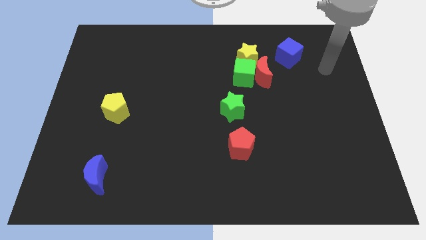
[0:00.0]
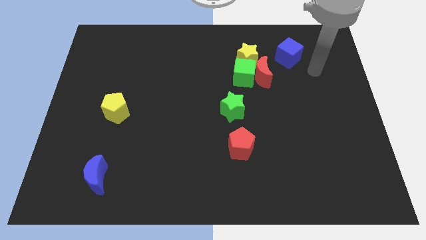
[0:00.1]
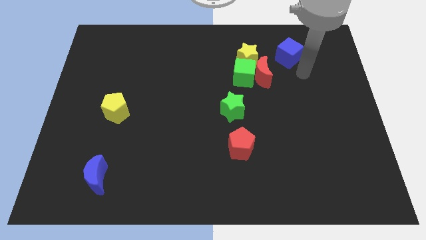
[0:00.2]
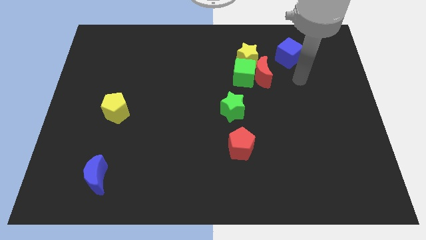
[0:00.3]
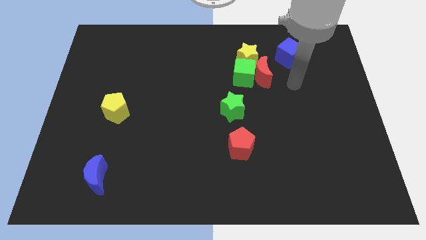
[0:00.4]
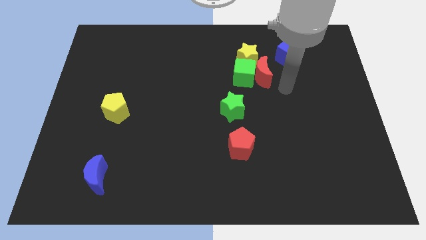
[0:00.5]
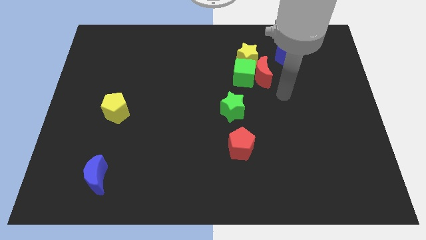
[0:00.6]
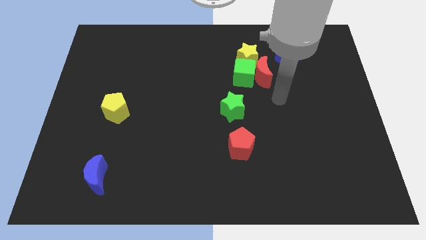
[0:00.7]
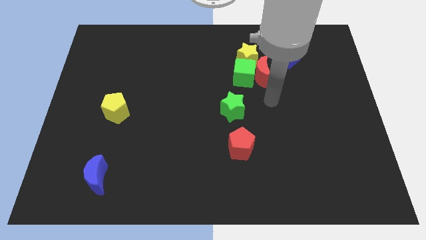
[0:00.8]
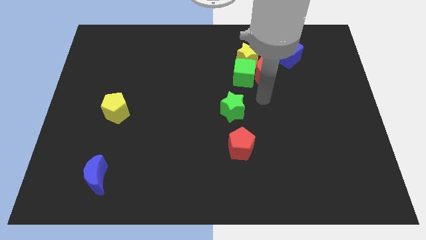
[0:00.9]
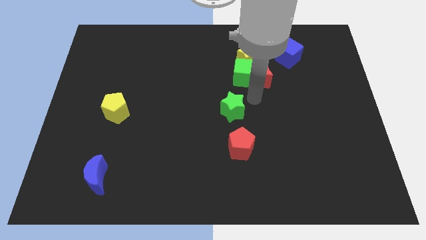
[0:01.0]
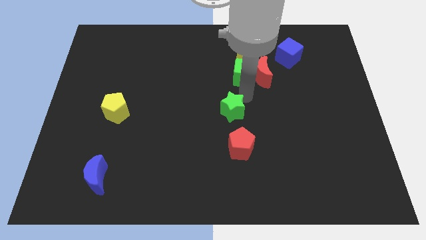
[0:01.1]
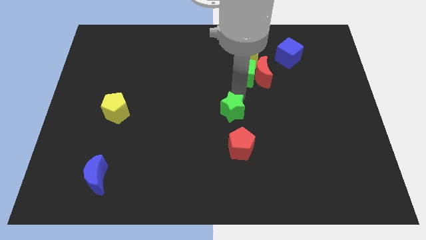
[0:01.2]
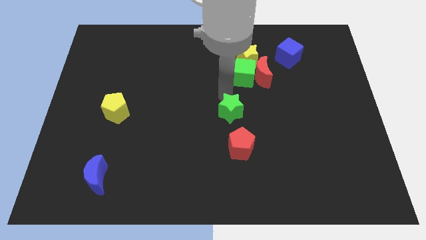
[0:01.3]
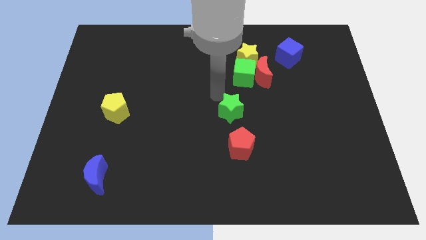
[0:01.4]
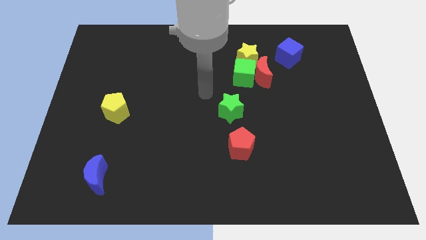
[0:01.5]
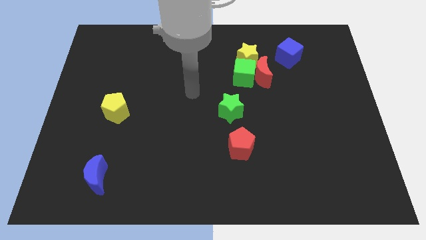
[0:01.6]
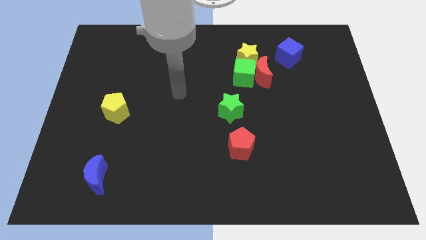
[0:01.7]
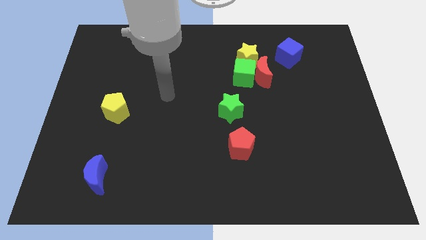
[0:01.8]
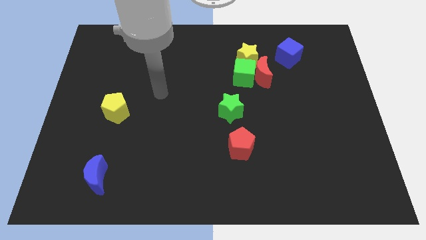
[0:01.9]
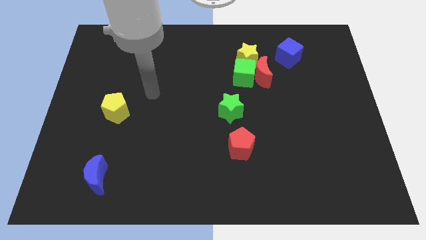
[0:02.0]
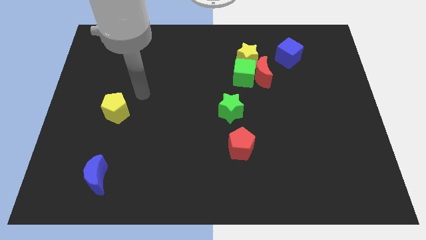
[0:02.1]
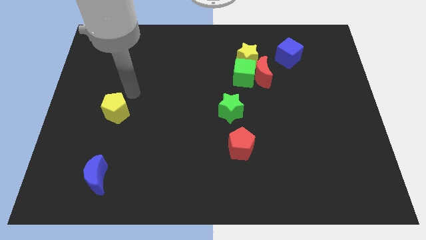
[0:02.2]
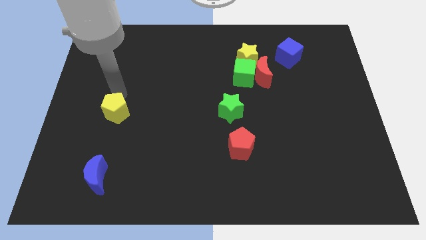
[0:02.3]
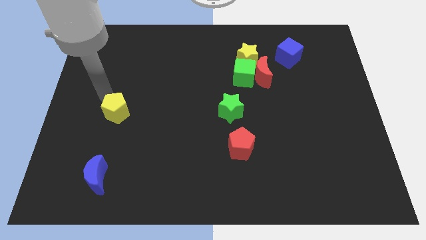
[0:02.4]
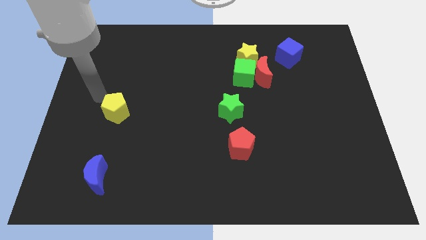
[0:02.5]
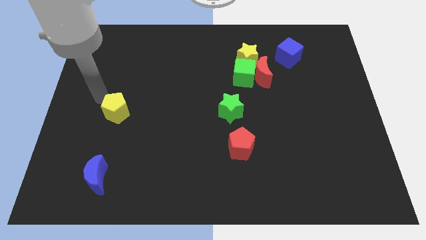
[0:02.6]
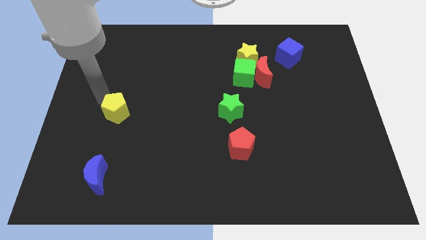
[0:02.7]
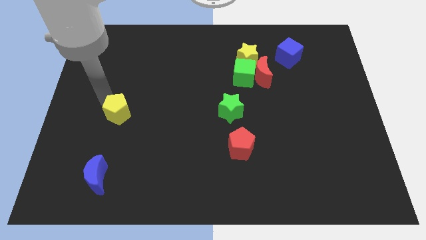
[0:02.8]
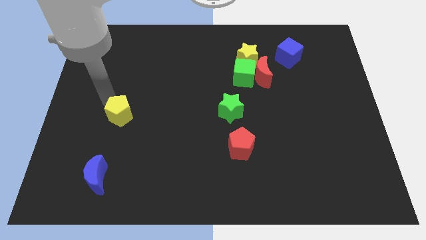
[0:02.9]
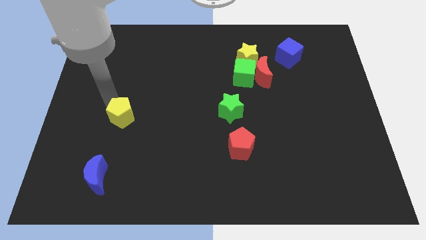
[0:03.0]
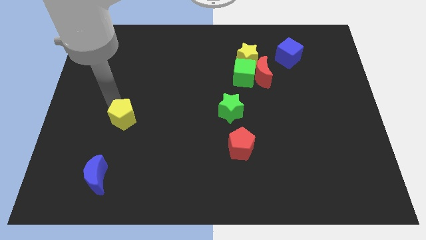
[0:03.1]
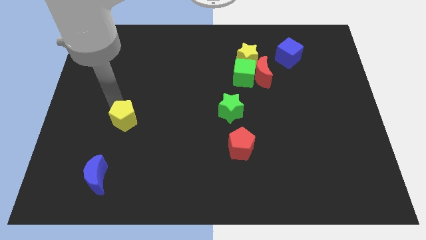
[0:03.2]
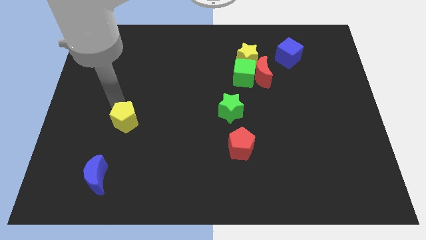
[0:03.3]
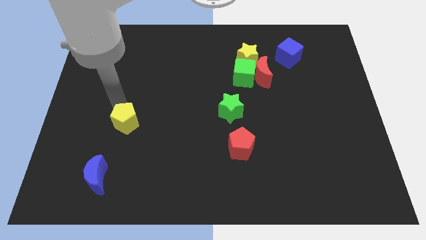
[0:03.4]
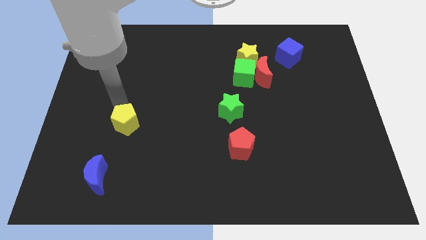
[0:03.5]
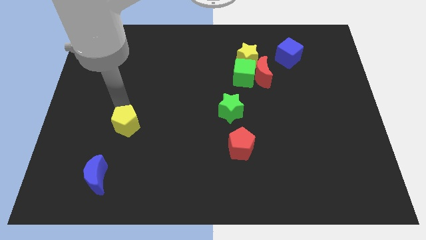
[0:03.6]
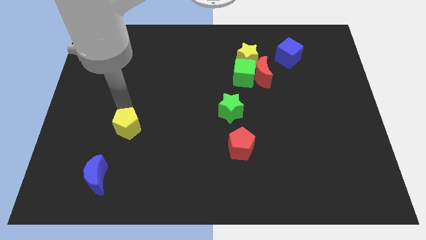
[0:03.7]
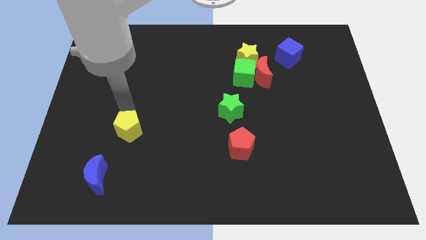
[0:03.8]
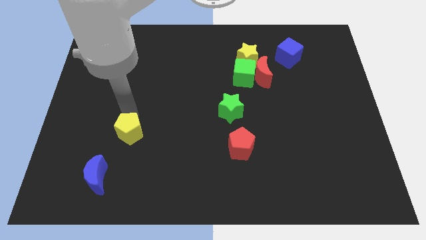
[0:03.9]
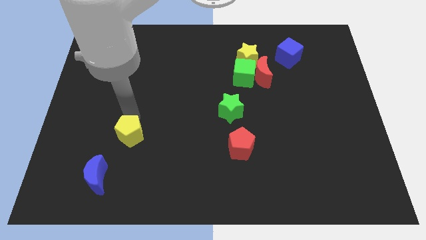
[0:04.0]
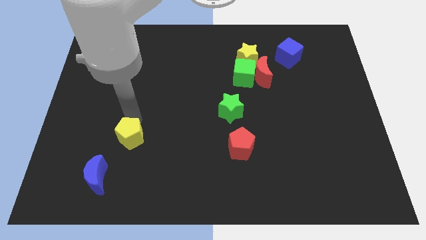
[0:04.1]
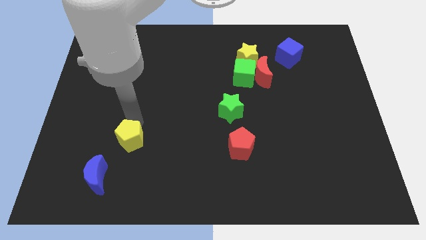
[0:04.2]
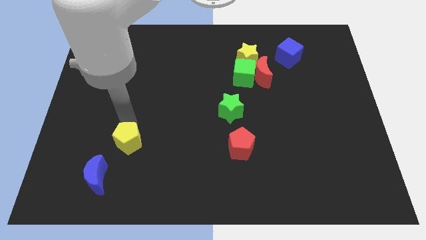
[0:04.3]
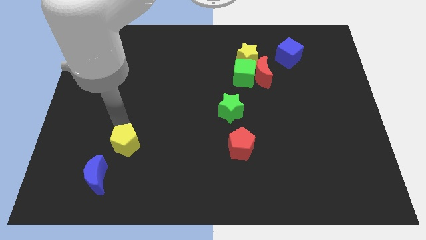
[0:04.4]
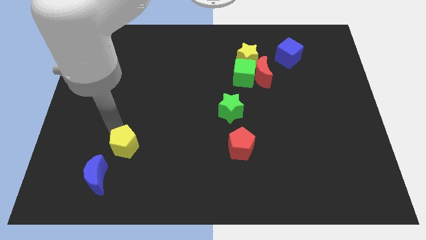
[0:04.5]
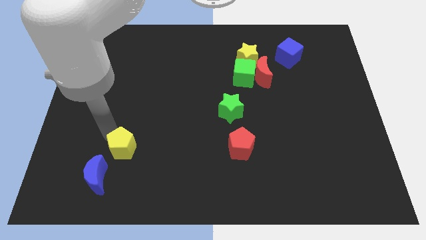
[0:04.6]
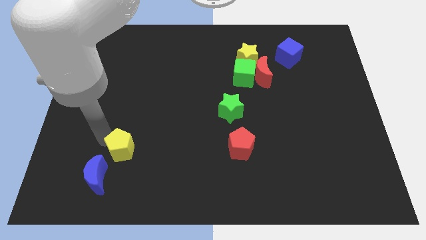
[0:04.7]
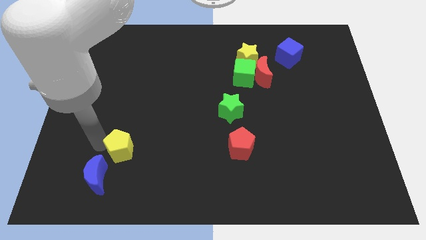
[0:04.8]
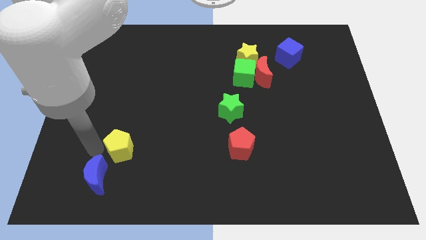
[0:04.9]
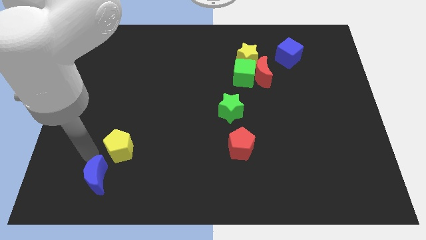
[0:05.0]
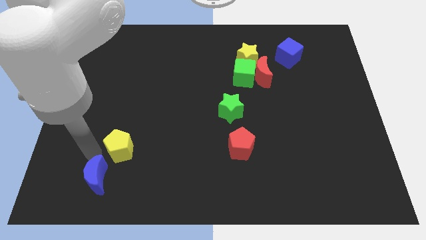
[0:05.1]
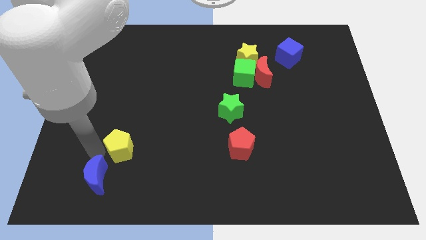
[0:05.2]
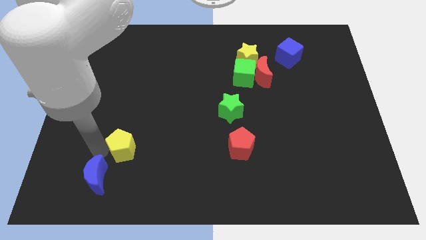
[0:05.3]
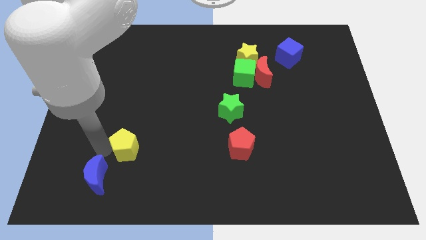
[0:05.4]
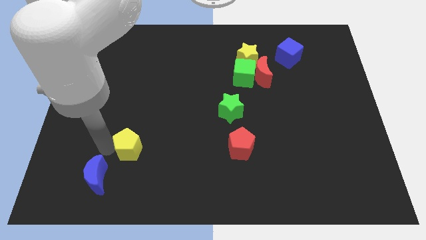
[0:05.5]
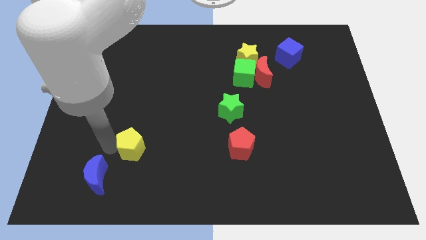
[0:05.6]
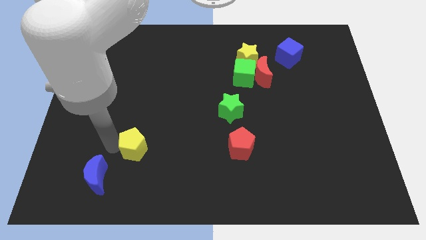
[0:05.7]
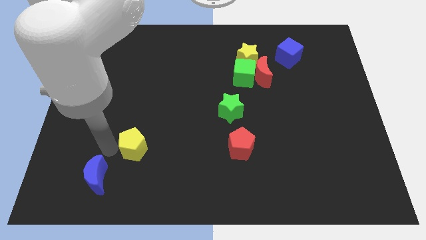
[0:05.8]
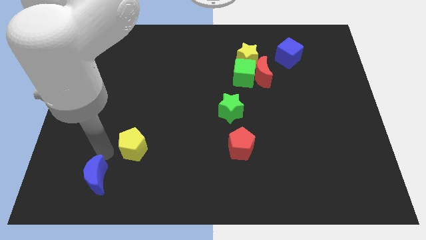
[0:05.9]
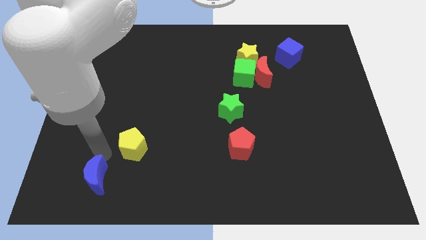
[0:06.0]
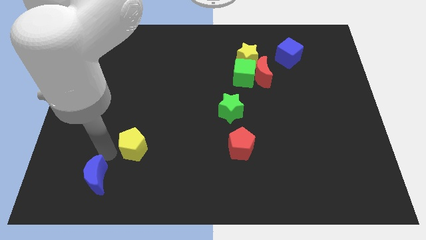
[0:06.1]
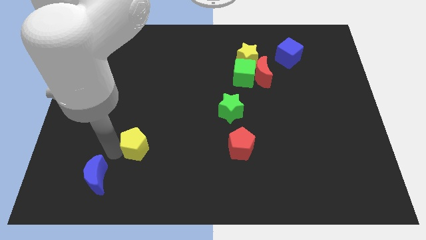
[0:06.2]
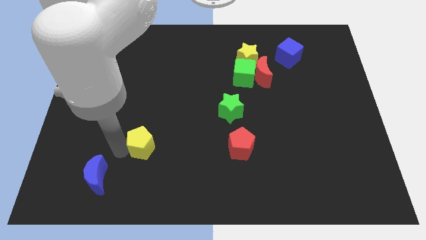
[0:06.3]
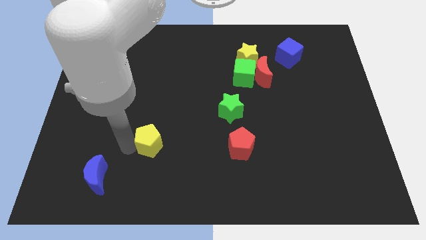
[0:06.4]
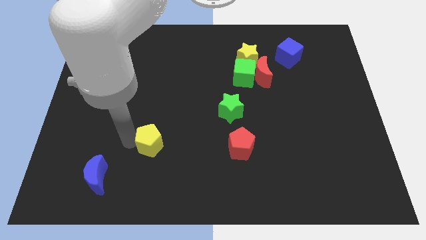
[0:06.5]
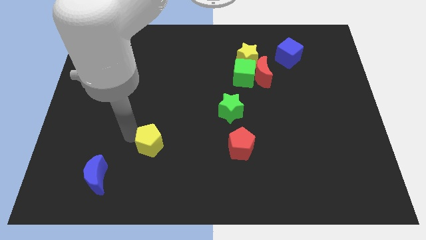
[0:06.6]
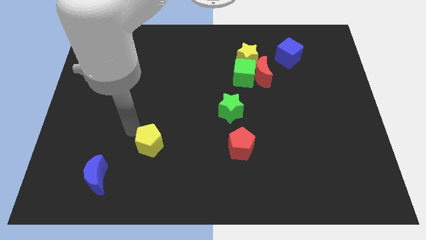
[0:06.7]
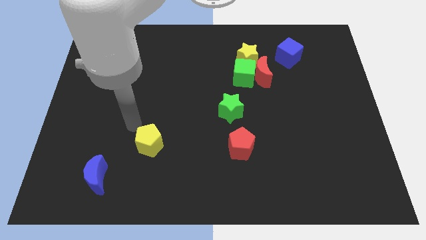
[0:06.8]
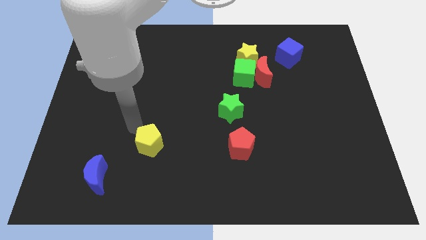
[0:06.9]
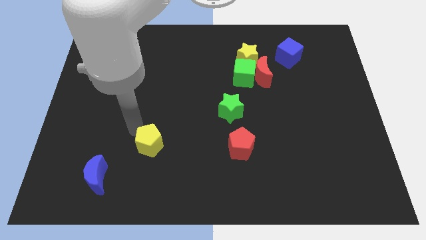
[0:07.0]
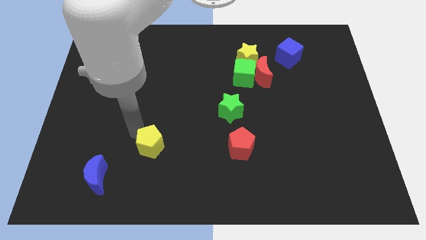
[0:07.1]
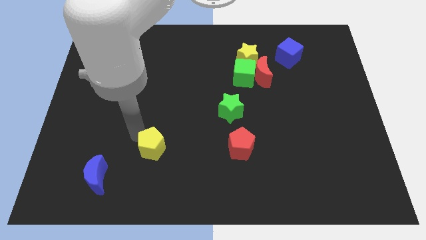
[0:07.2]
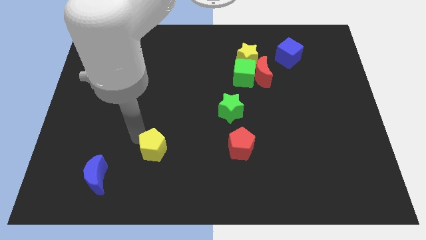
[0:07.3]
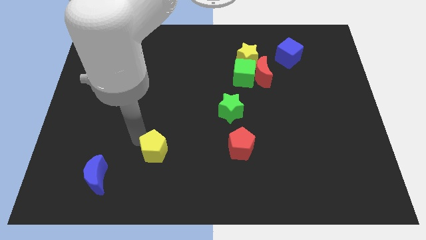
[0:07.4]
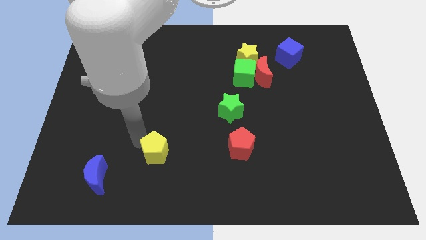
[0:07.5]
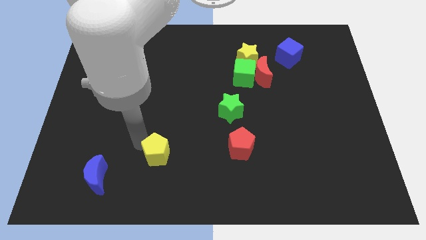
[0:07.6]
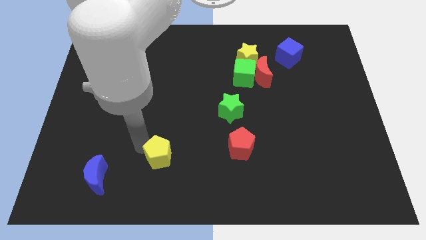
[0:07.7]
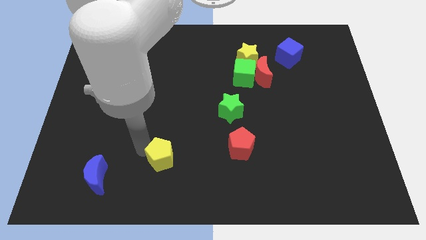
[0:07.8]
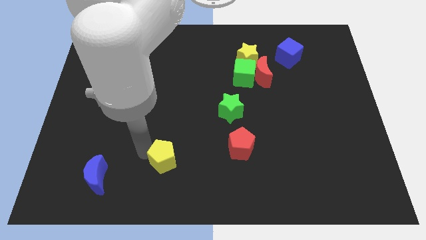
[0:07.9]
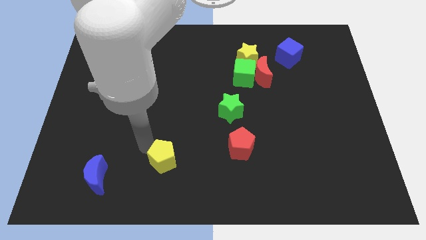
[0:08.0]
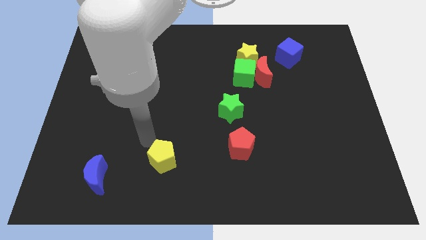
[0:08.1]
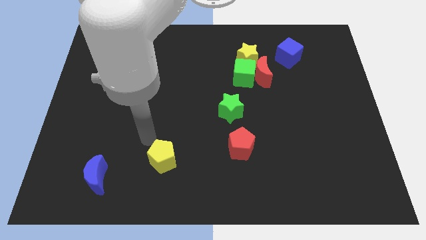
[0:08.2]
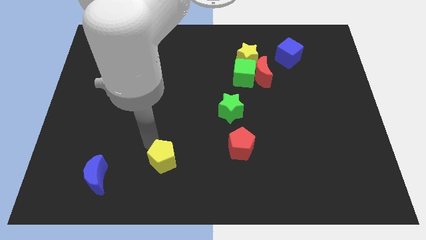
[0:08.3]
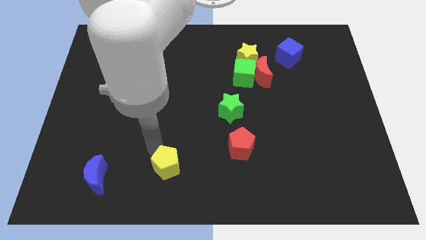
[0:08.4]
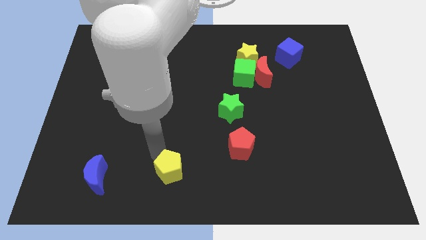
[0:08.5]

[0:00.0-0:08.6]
slide the yellow pentagon to the bottom
